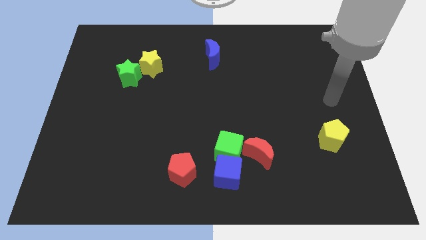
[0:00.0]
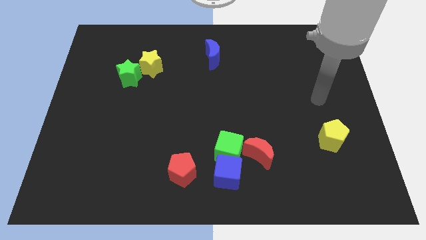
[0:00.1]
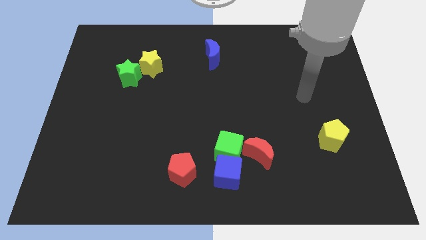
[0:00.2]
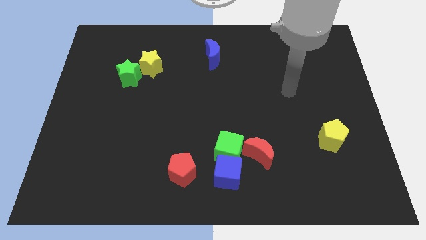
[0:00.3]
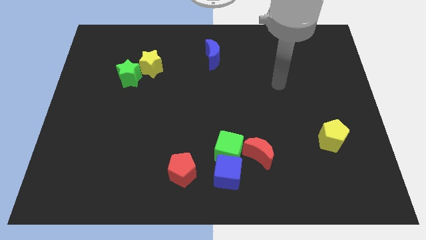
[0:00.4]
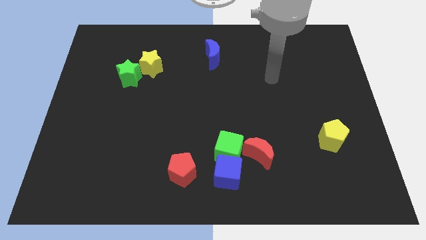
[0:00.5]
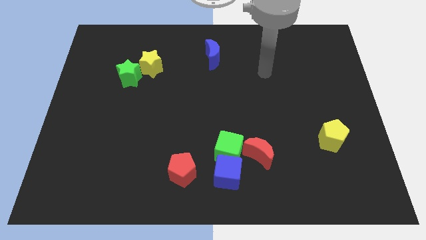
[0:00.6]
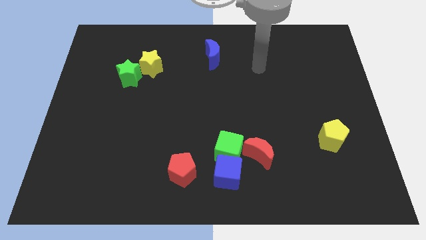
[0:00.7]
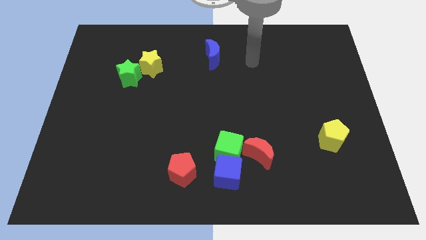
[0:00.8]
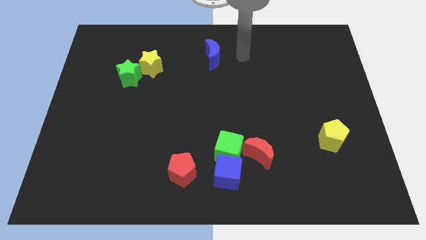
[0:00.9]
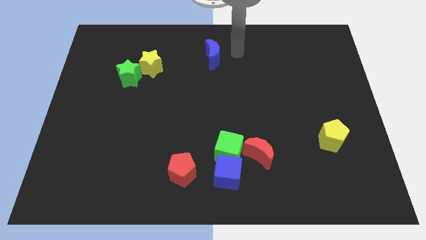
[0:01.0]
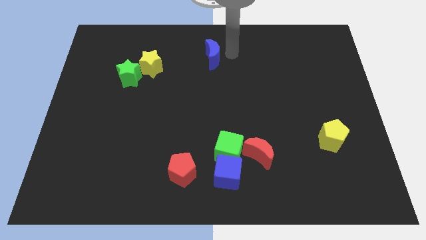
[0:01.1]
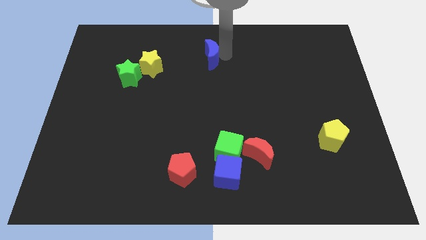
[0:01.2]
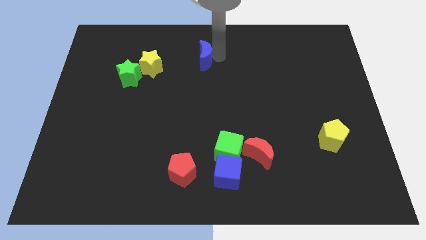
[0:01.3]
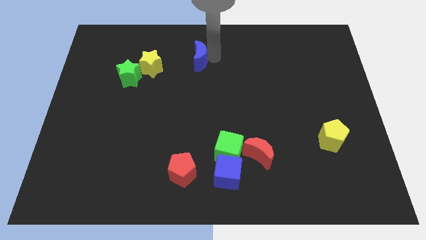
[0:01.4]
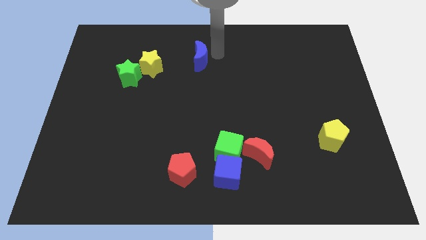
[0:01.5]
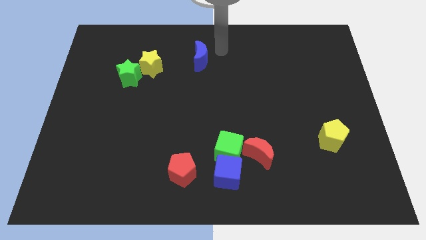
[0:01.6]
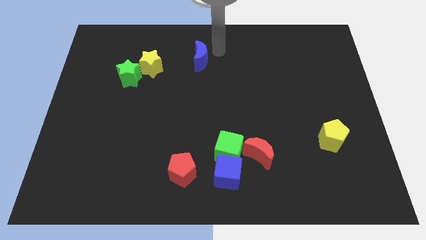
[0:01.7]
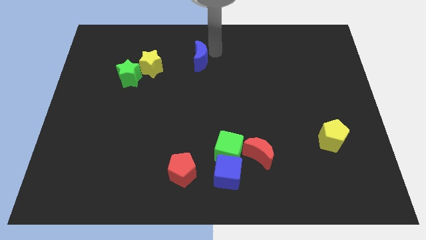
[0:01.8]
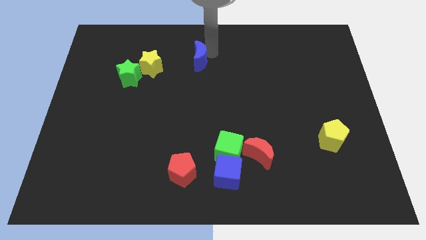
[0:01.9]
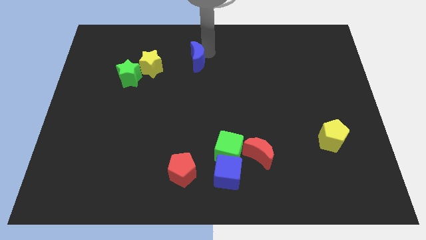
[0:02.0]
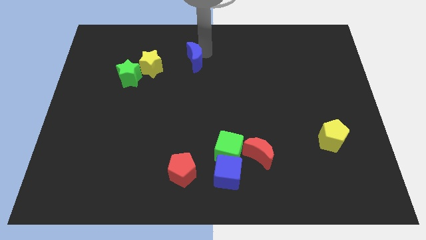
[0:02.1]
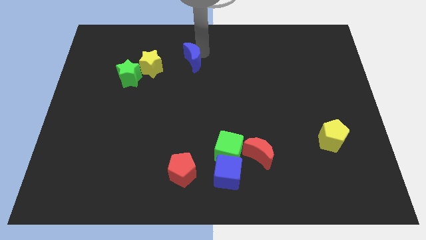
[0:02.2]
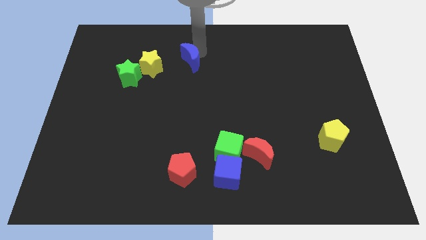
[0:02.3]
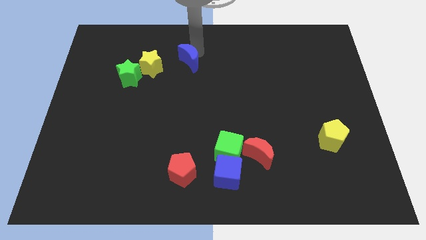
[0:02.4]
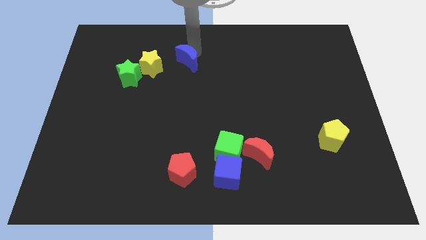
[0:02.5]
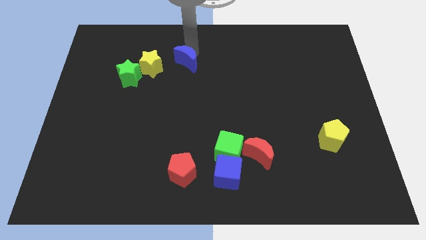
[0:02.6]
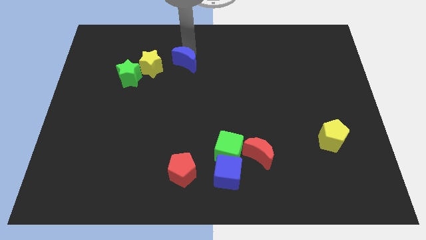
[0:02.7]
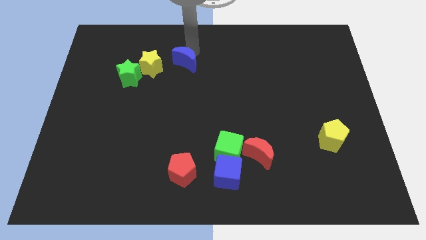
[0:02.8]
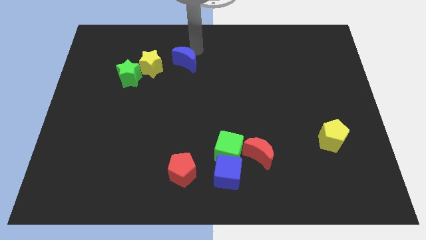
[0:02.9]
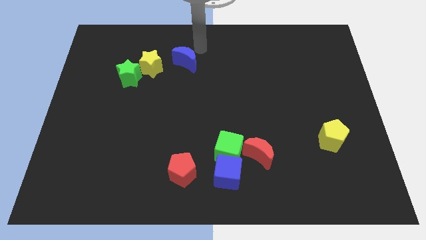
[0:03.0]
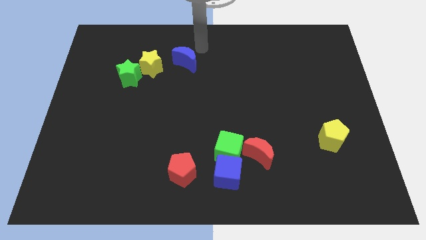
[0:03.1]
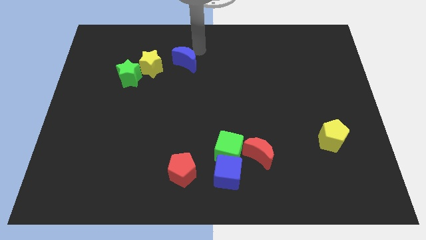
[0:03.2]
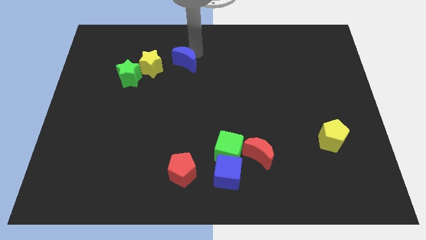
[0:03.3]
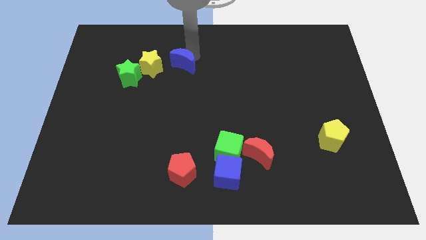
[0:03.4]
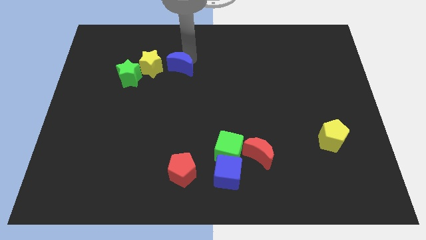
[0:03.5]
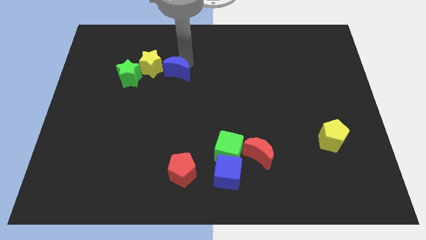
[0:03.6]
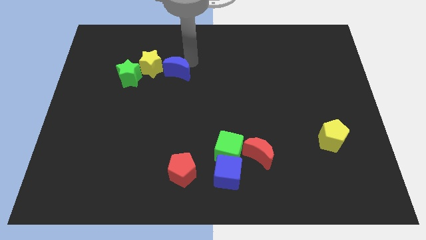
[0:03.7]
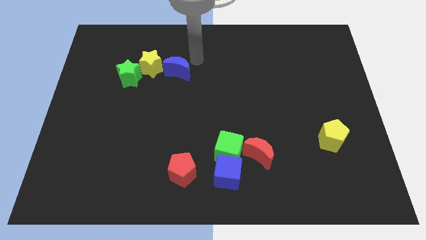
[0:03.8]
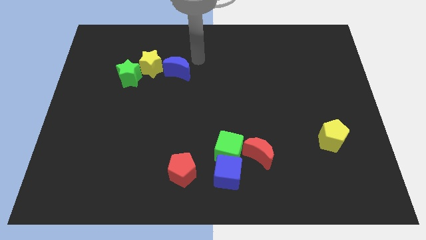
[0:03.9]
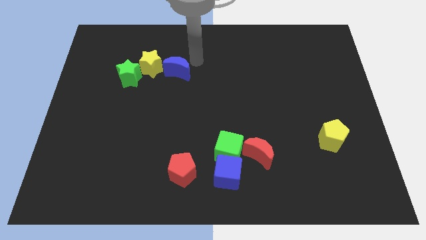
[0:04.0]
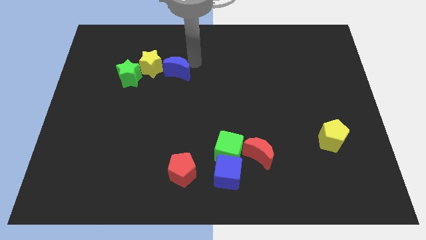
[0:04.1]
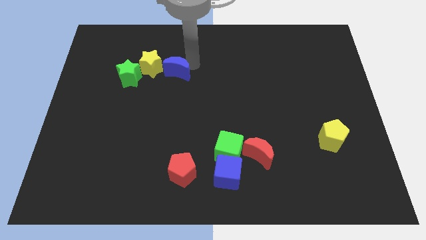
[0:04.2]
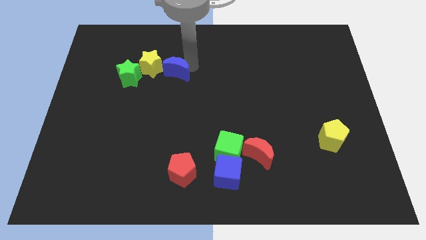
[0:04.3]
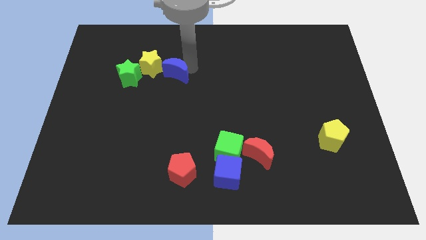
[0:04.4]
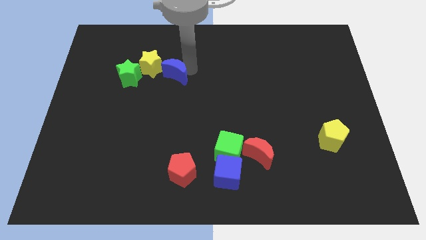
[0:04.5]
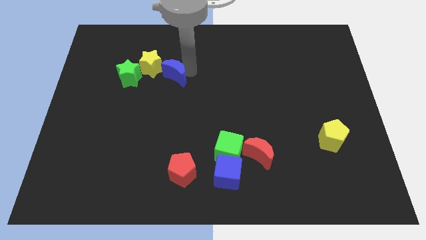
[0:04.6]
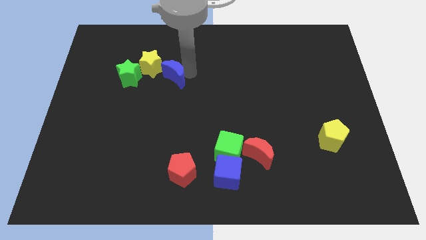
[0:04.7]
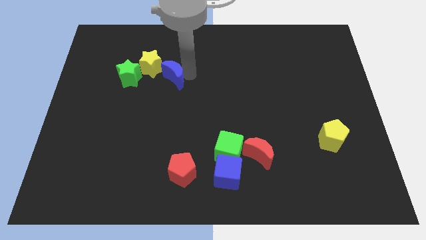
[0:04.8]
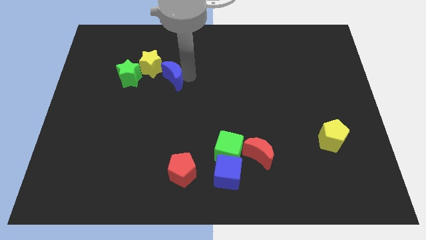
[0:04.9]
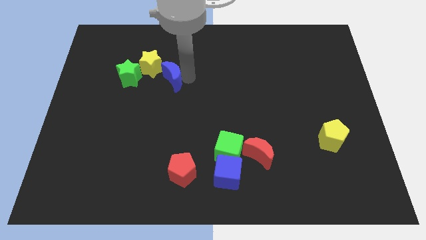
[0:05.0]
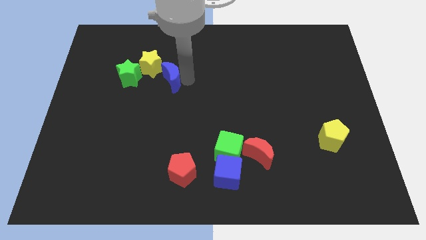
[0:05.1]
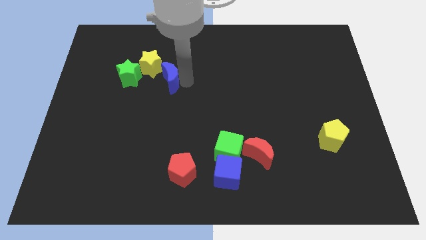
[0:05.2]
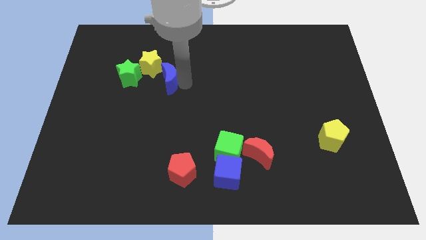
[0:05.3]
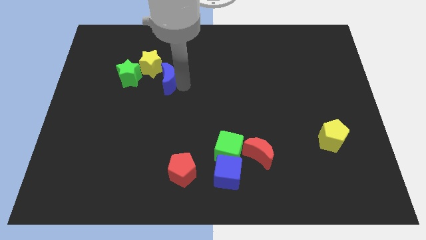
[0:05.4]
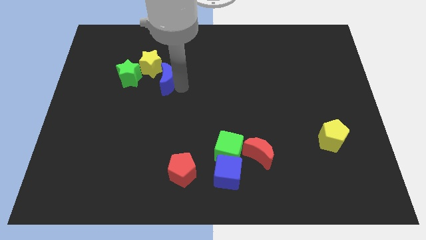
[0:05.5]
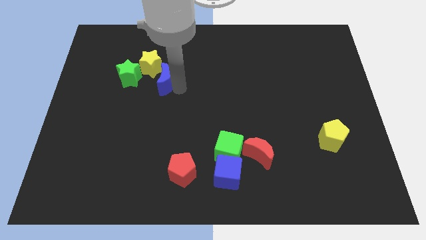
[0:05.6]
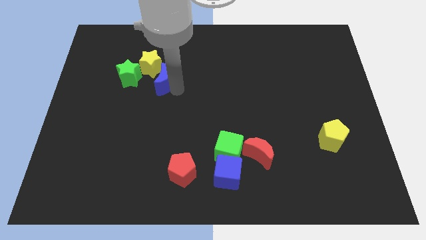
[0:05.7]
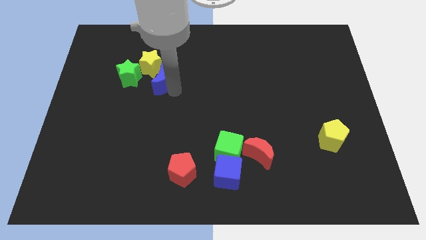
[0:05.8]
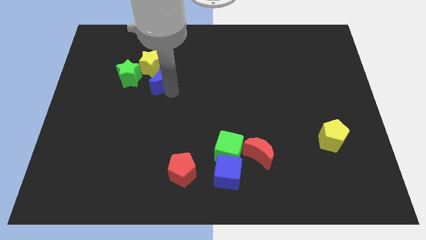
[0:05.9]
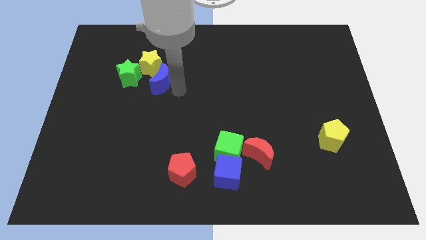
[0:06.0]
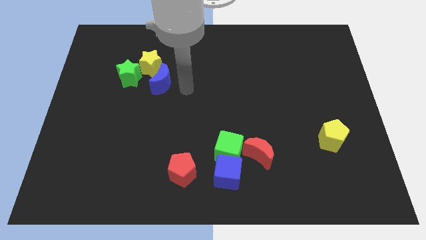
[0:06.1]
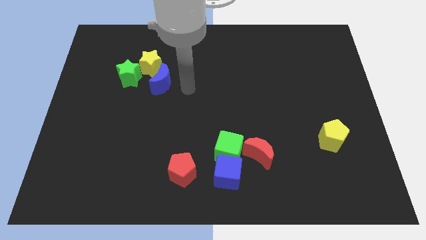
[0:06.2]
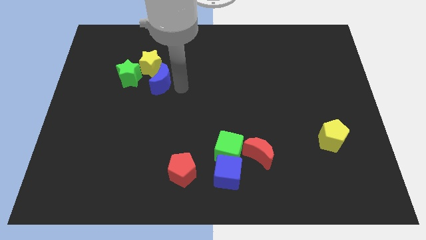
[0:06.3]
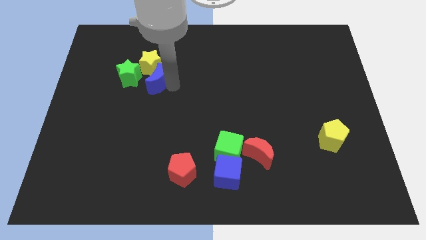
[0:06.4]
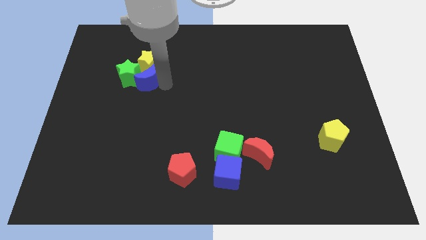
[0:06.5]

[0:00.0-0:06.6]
move the blue moon towards the green star

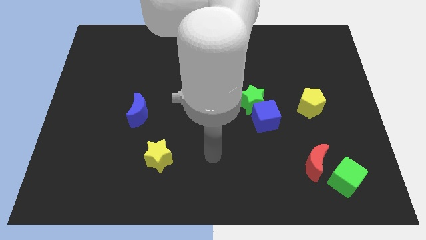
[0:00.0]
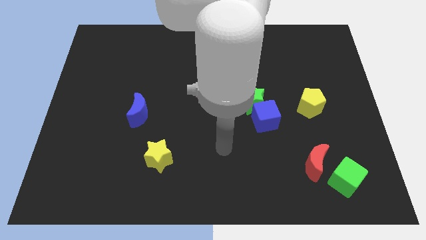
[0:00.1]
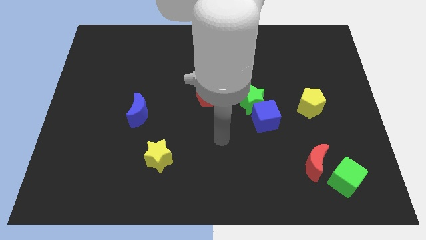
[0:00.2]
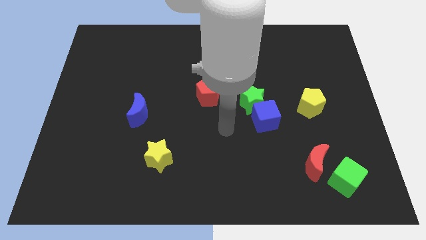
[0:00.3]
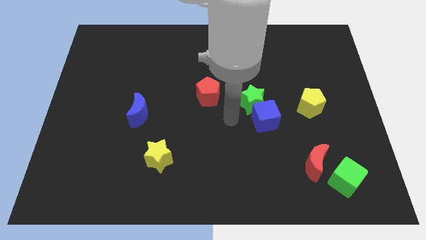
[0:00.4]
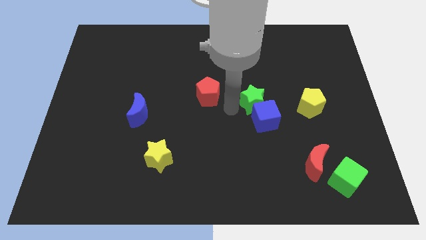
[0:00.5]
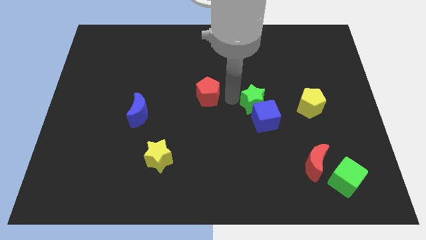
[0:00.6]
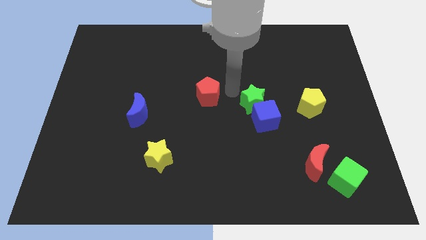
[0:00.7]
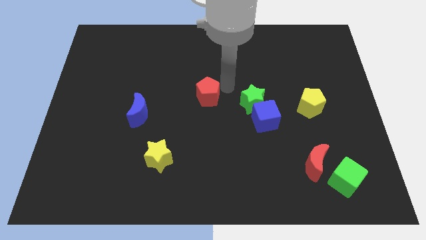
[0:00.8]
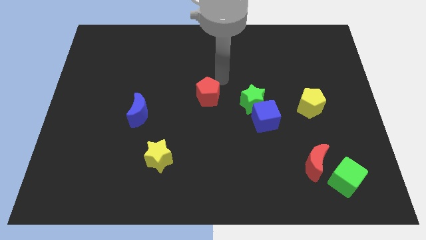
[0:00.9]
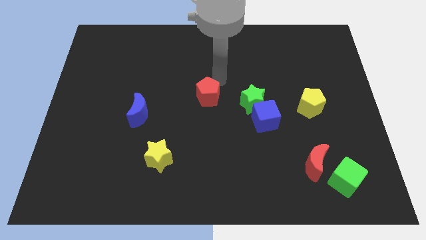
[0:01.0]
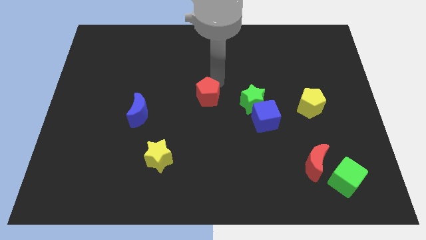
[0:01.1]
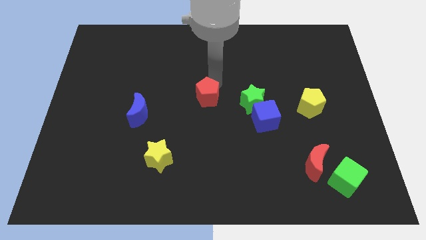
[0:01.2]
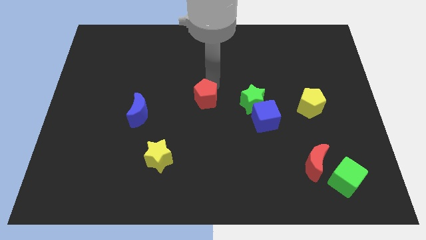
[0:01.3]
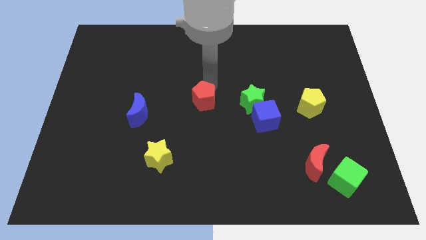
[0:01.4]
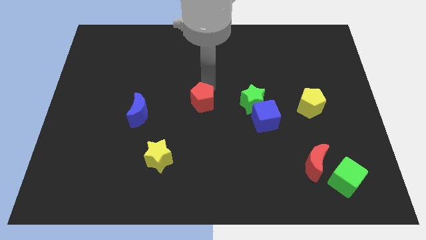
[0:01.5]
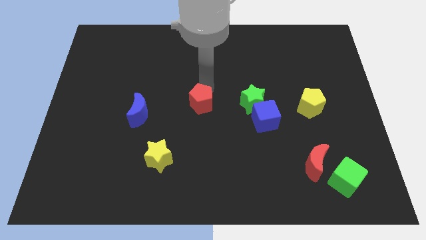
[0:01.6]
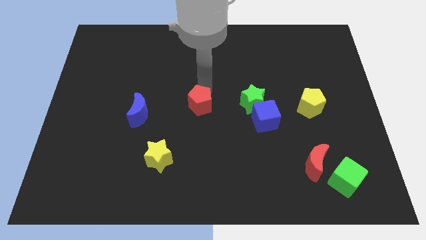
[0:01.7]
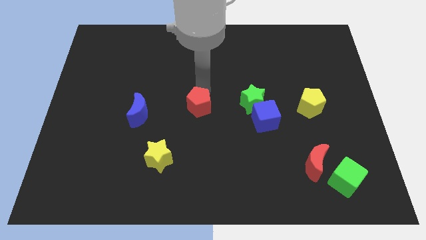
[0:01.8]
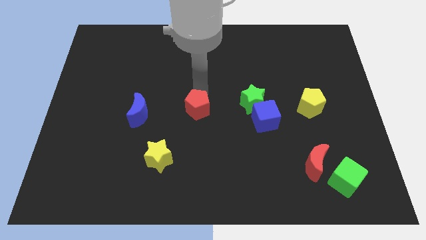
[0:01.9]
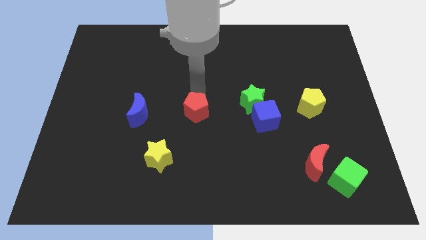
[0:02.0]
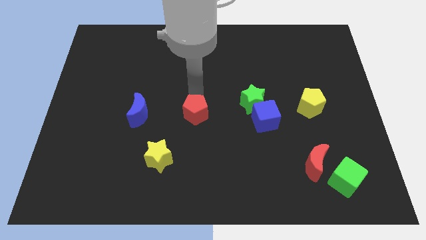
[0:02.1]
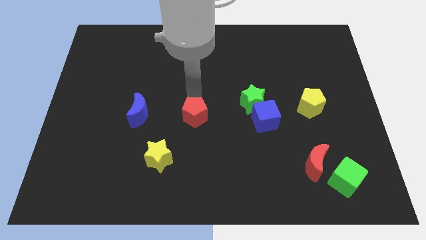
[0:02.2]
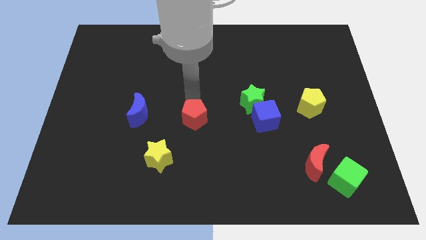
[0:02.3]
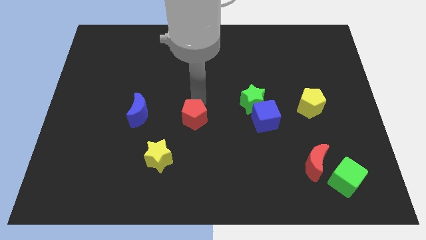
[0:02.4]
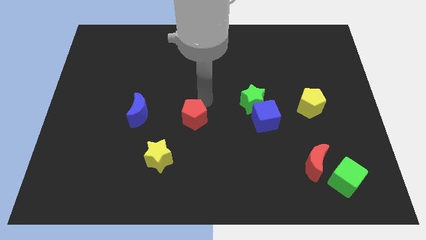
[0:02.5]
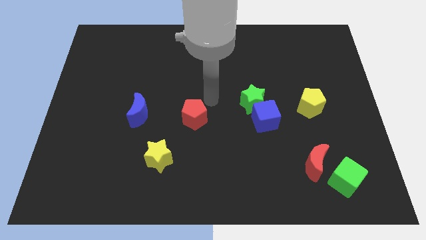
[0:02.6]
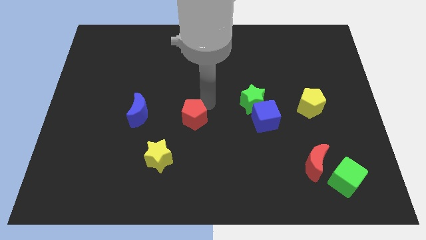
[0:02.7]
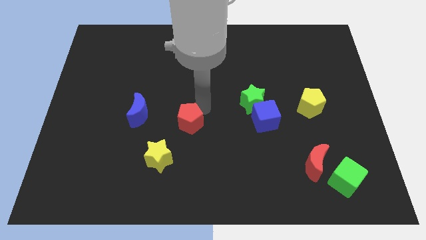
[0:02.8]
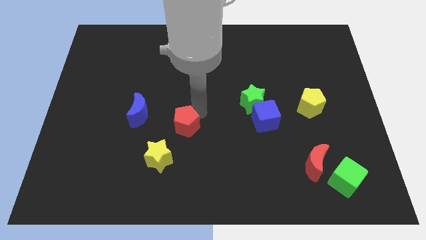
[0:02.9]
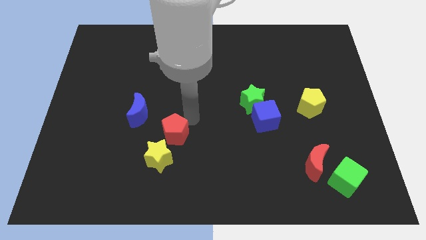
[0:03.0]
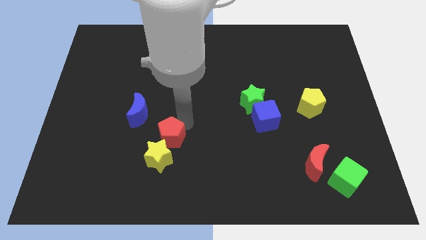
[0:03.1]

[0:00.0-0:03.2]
push the red pentagon close to the yellow star
